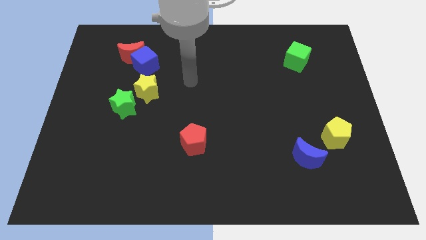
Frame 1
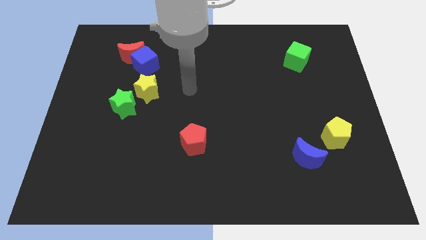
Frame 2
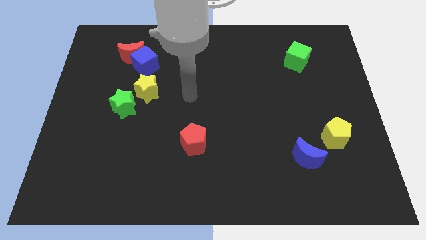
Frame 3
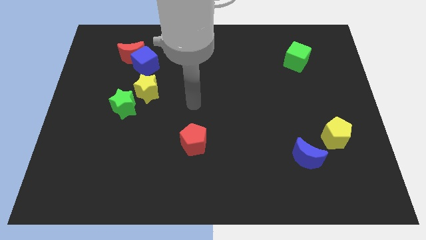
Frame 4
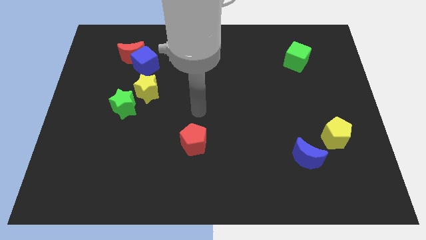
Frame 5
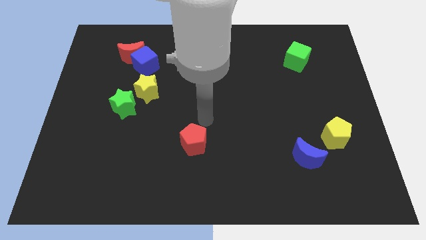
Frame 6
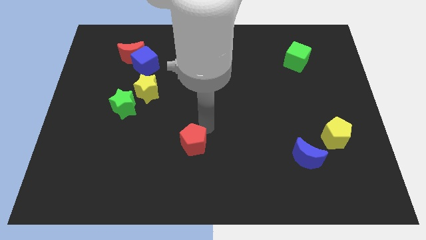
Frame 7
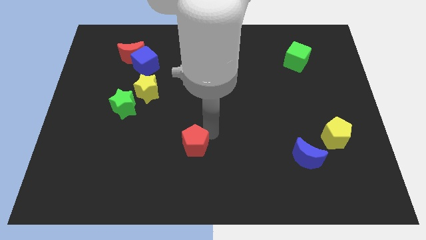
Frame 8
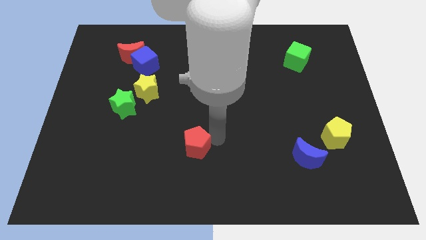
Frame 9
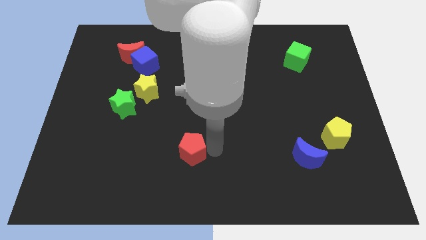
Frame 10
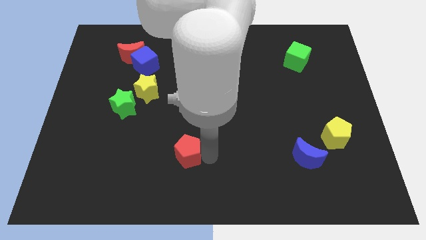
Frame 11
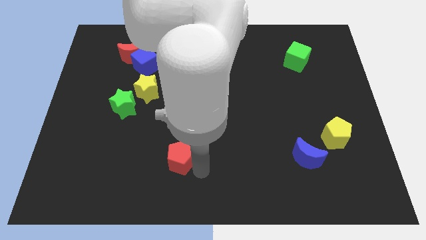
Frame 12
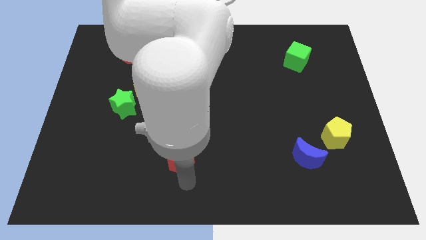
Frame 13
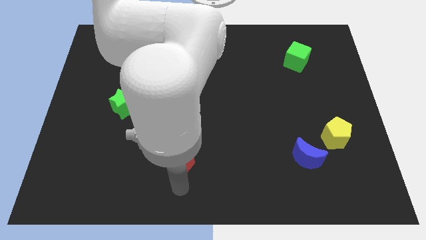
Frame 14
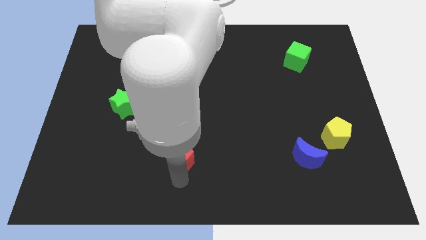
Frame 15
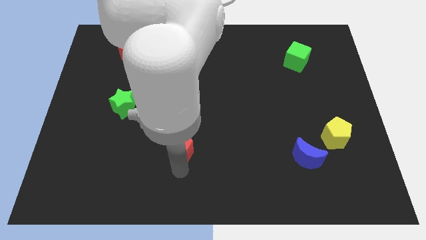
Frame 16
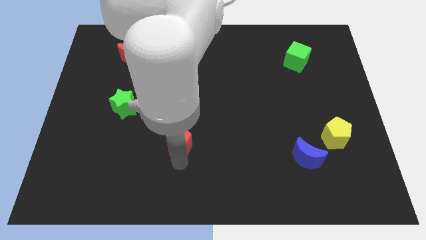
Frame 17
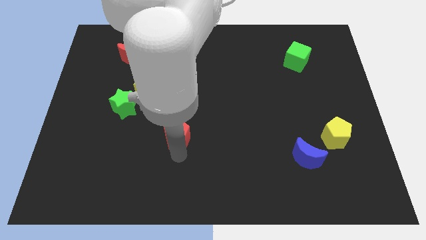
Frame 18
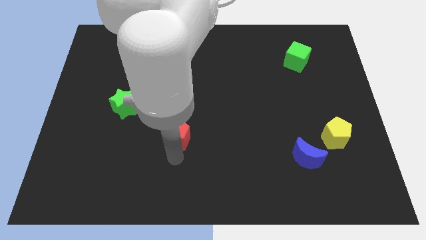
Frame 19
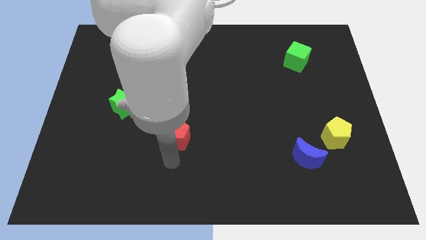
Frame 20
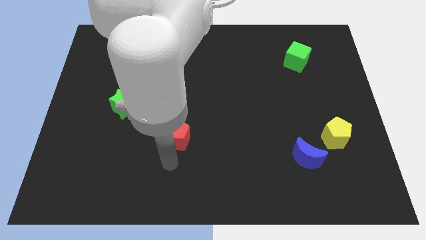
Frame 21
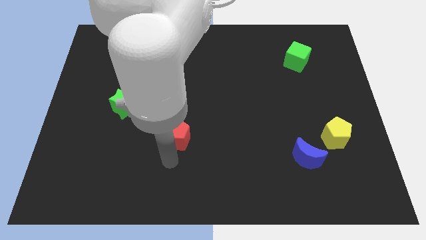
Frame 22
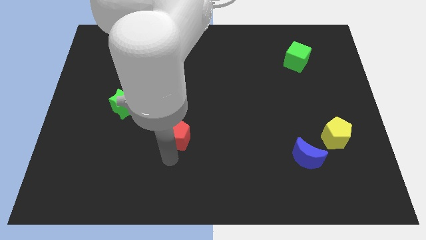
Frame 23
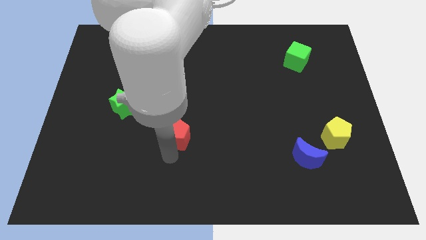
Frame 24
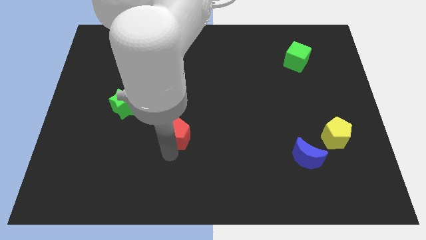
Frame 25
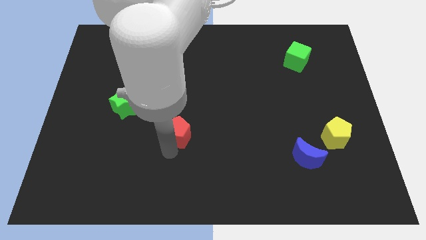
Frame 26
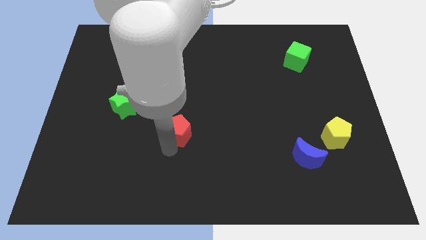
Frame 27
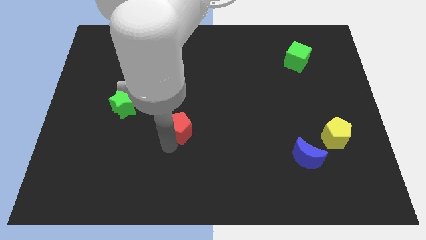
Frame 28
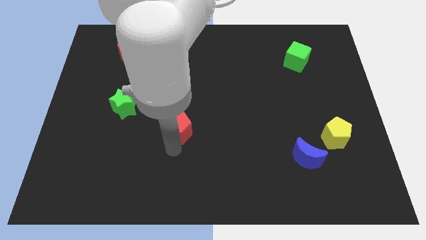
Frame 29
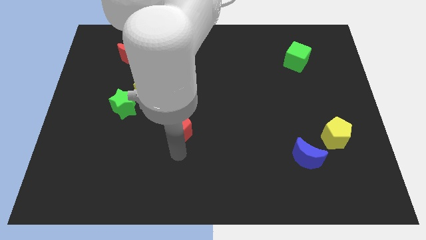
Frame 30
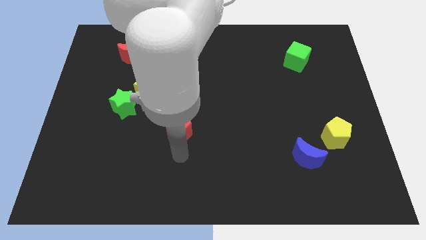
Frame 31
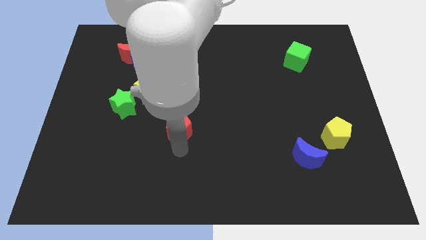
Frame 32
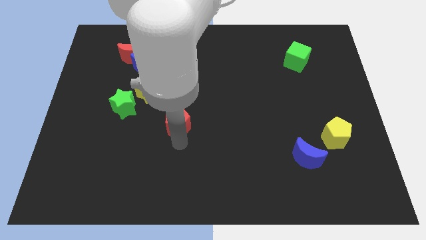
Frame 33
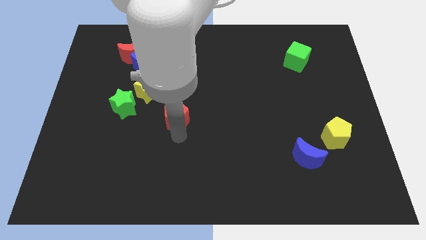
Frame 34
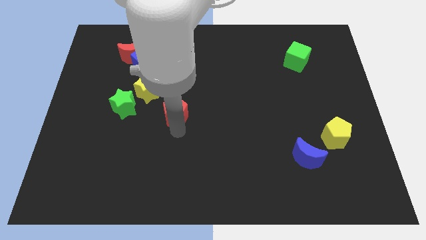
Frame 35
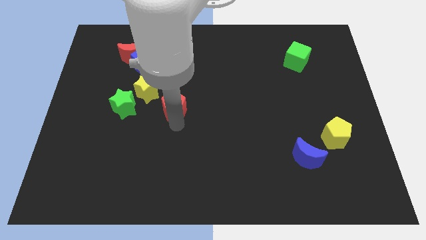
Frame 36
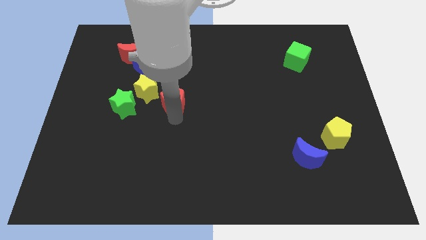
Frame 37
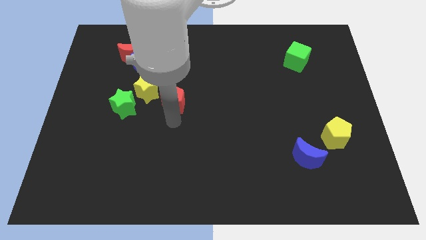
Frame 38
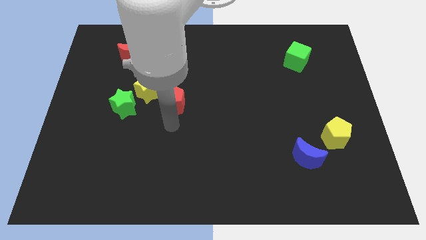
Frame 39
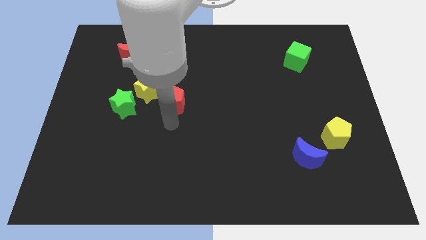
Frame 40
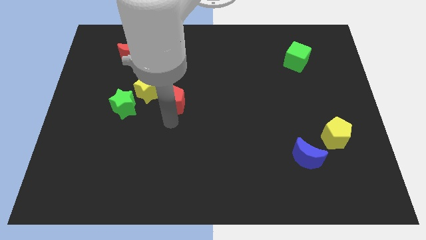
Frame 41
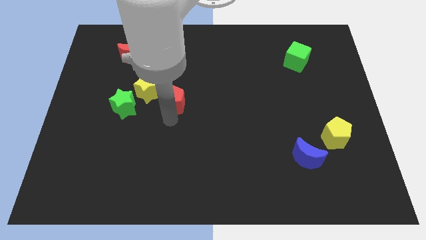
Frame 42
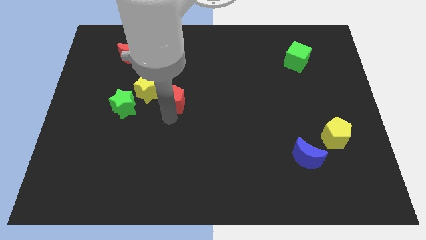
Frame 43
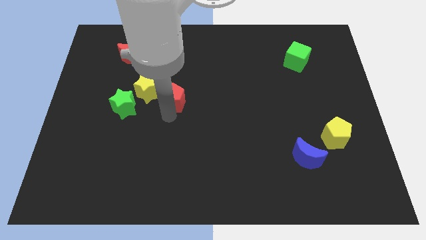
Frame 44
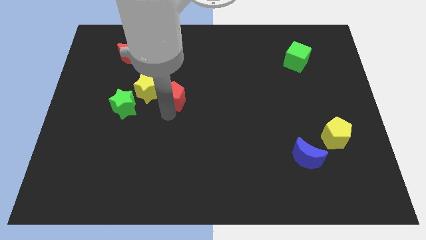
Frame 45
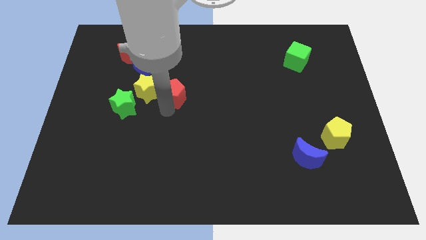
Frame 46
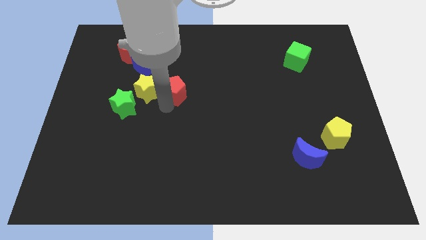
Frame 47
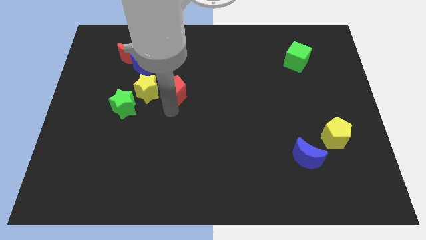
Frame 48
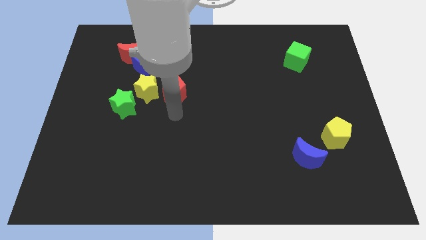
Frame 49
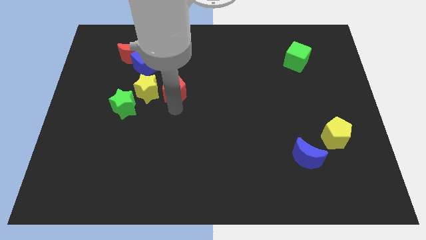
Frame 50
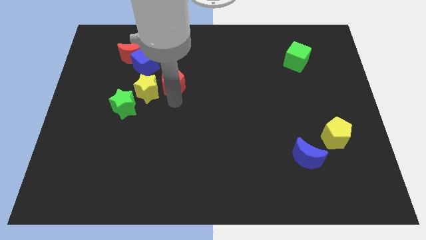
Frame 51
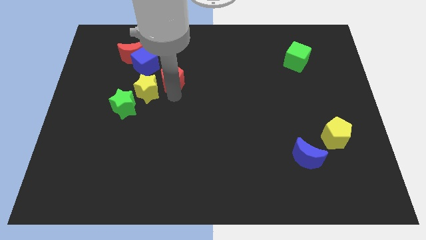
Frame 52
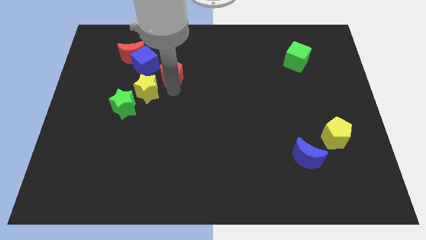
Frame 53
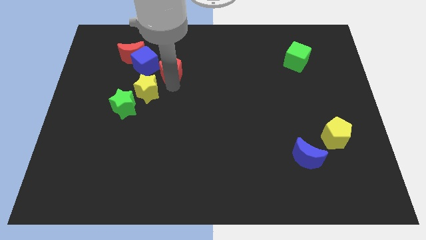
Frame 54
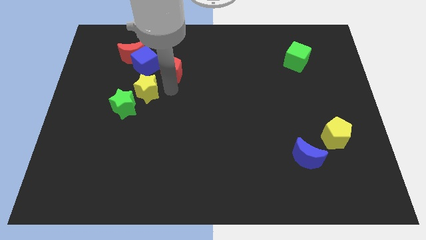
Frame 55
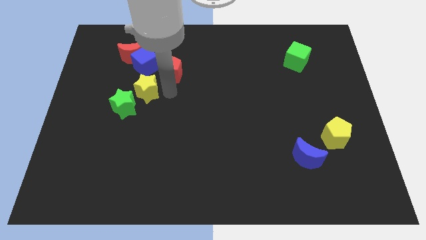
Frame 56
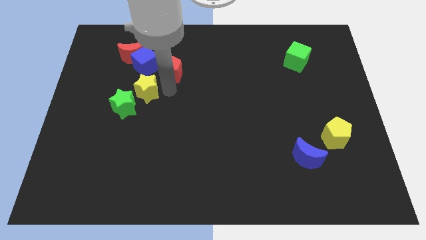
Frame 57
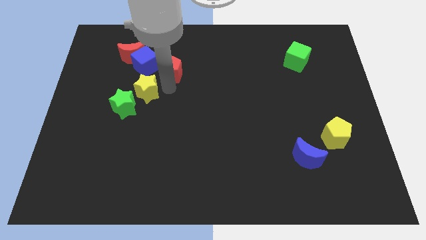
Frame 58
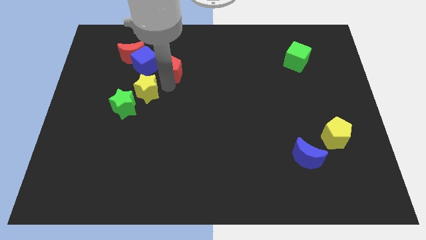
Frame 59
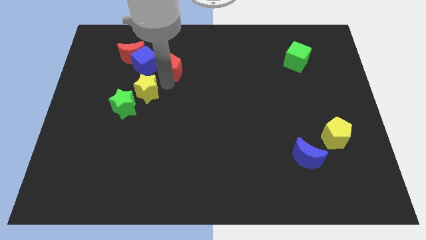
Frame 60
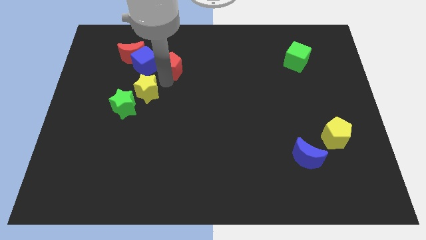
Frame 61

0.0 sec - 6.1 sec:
slide the red pentagon to the right of the red moon

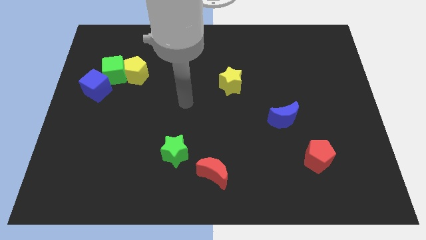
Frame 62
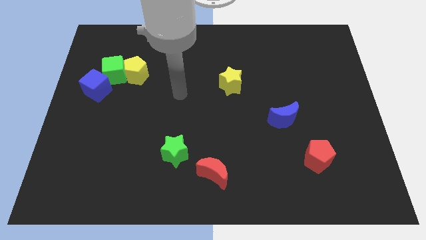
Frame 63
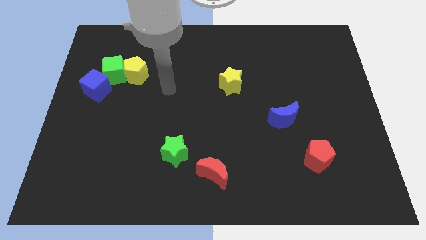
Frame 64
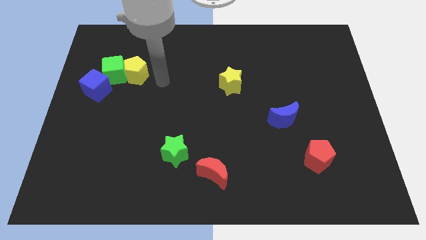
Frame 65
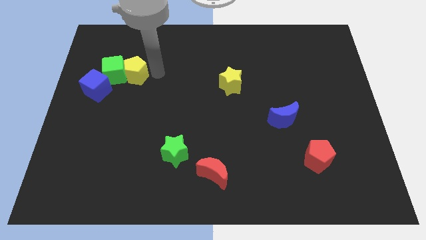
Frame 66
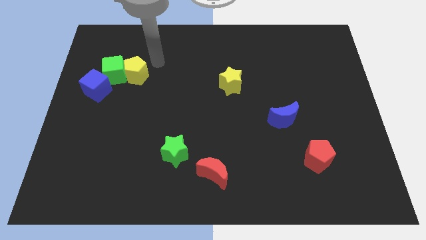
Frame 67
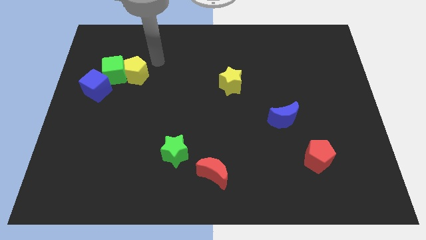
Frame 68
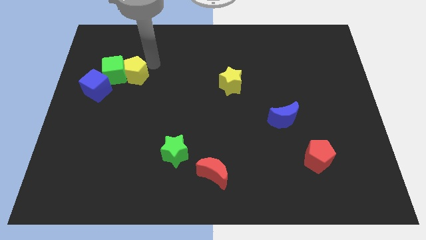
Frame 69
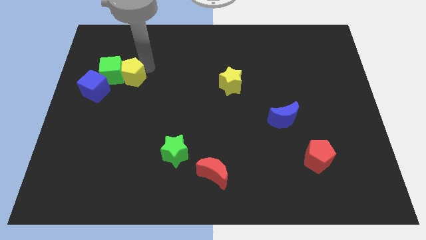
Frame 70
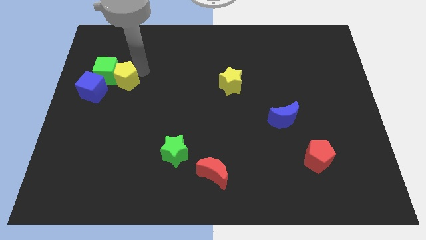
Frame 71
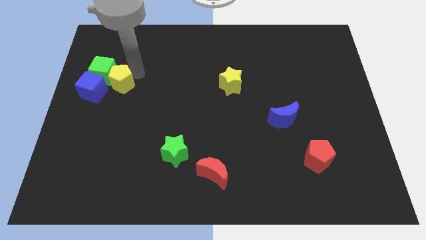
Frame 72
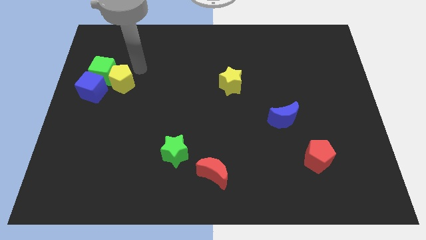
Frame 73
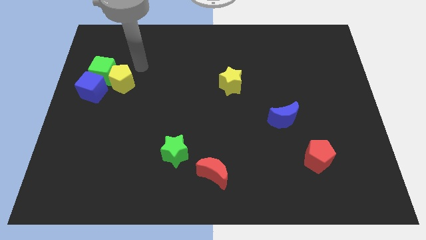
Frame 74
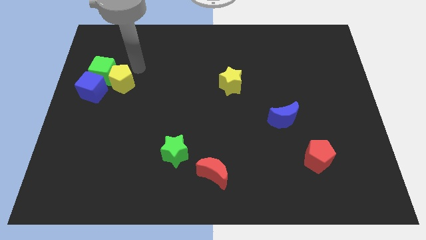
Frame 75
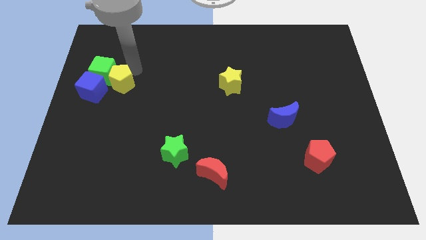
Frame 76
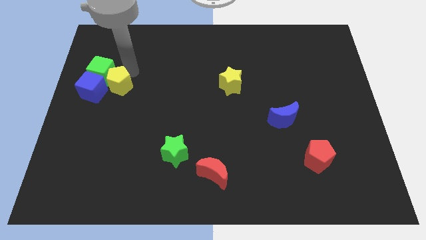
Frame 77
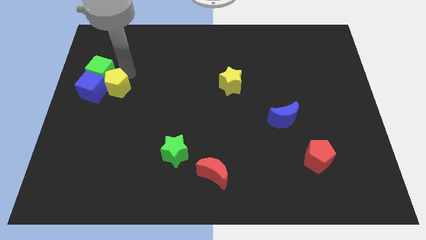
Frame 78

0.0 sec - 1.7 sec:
slide the yellow pentagon to the bottom side of the green cube
